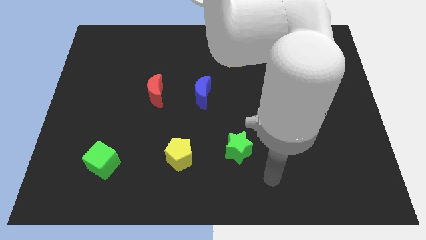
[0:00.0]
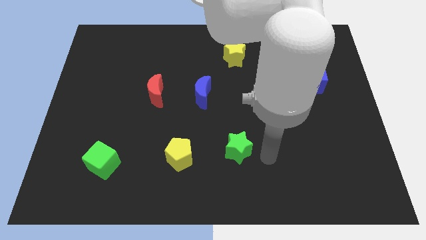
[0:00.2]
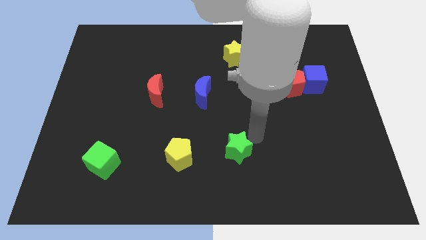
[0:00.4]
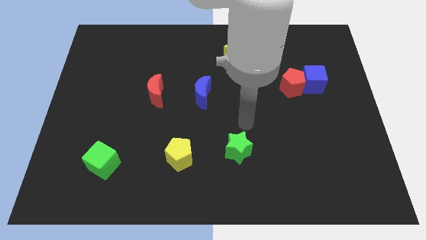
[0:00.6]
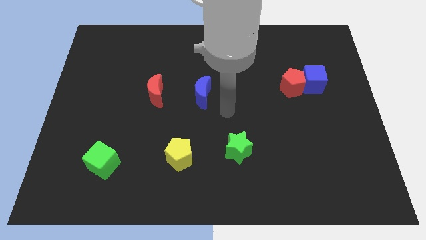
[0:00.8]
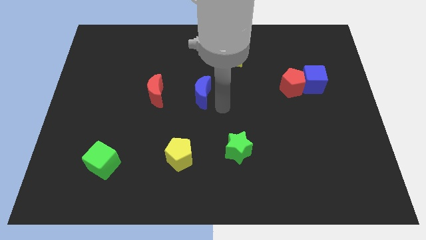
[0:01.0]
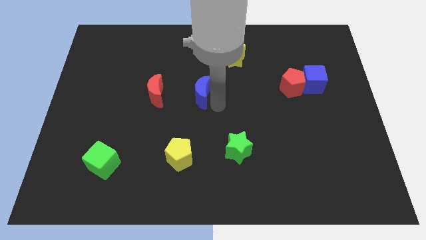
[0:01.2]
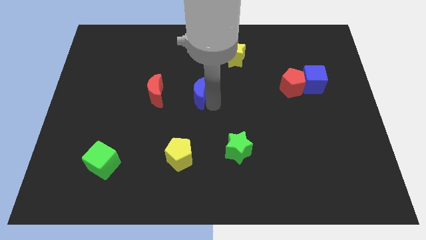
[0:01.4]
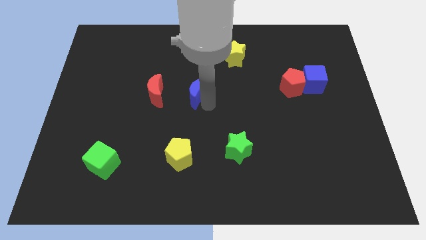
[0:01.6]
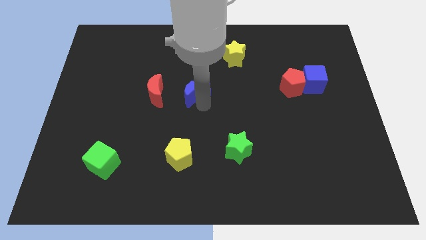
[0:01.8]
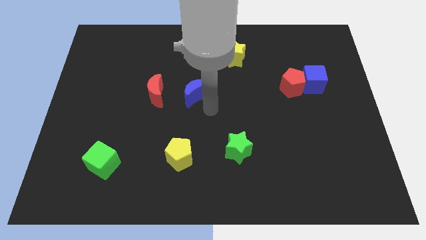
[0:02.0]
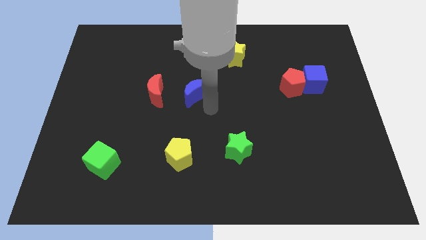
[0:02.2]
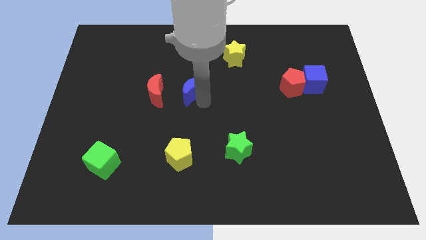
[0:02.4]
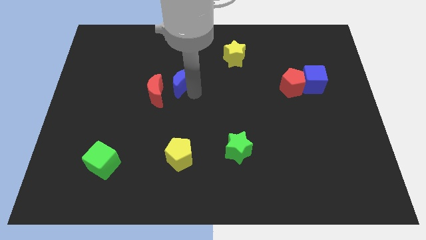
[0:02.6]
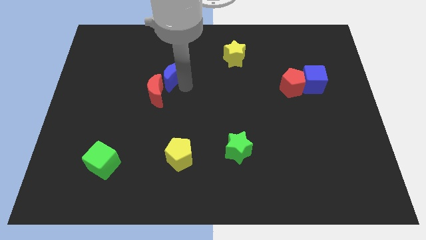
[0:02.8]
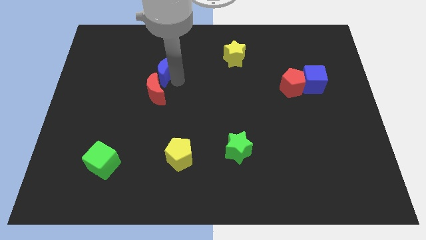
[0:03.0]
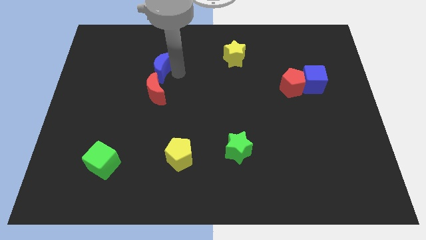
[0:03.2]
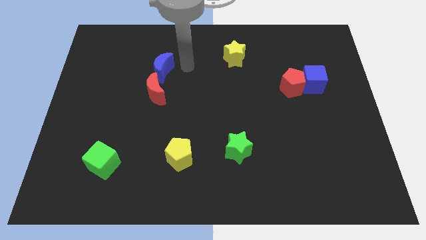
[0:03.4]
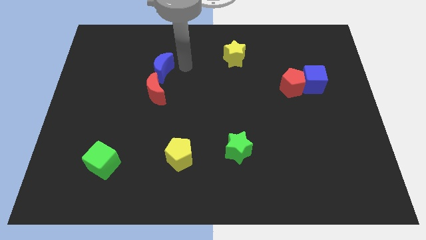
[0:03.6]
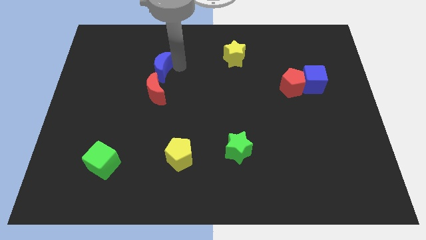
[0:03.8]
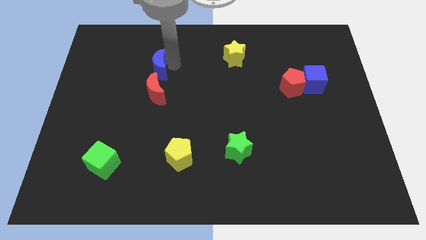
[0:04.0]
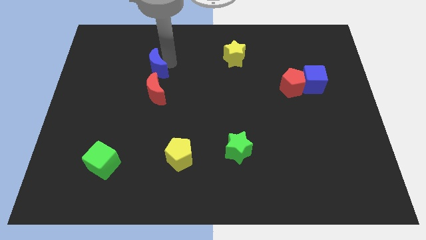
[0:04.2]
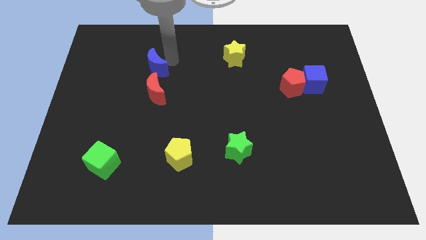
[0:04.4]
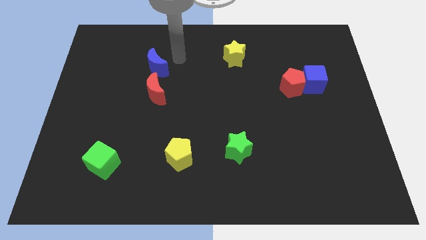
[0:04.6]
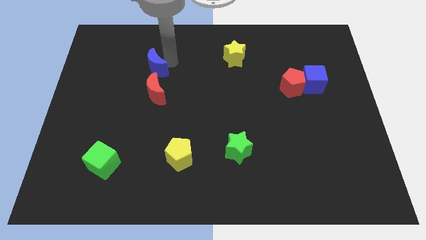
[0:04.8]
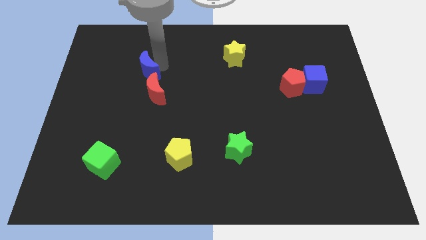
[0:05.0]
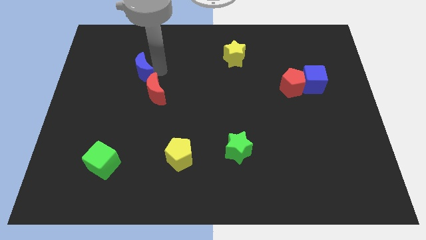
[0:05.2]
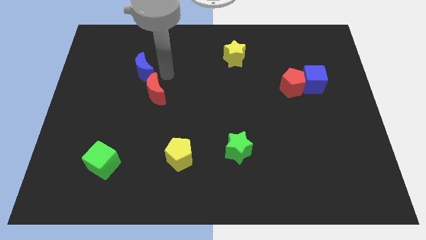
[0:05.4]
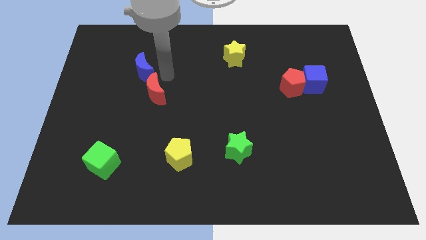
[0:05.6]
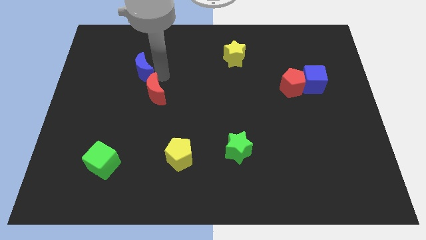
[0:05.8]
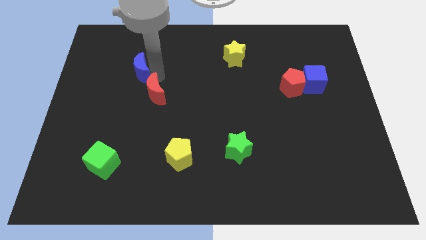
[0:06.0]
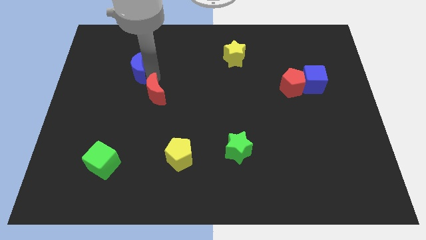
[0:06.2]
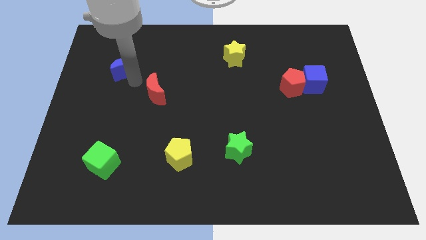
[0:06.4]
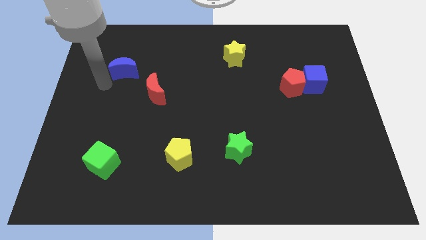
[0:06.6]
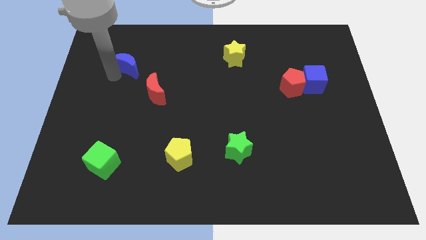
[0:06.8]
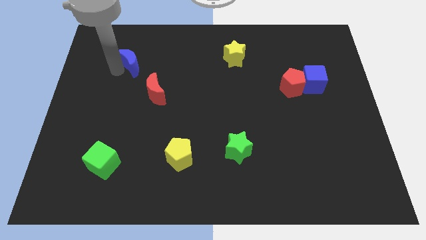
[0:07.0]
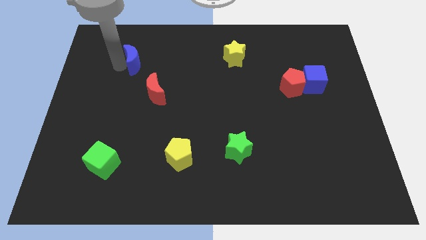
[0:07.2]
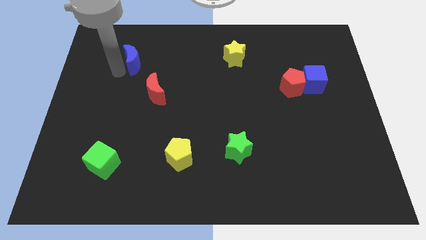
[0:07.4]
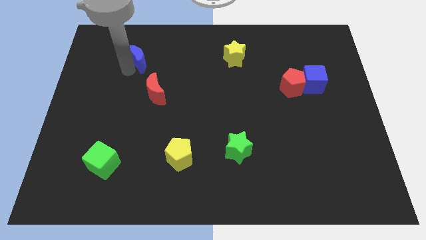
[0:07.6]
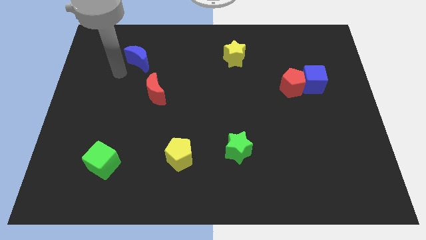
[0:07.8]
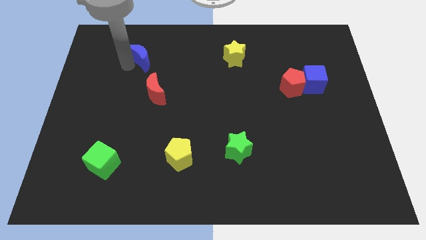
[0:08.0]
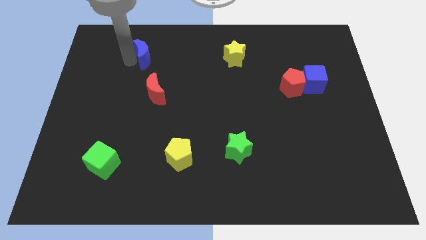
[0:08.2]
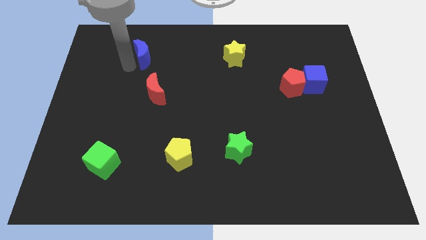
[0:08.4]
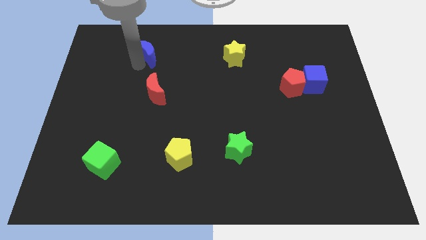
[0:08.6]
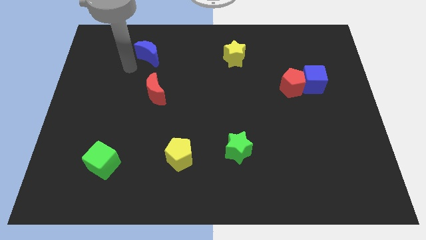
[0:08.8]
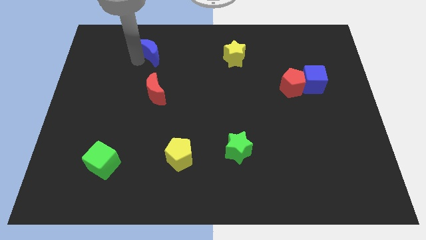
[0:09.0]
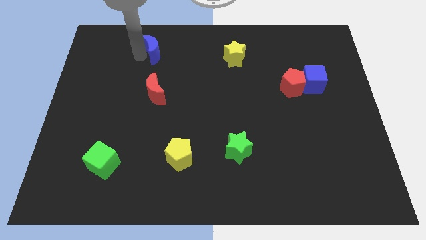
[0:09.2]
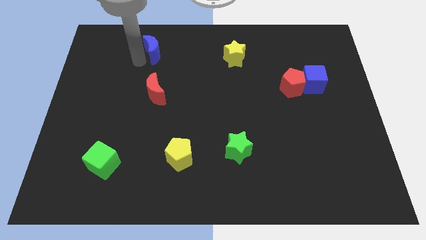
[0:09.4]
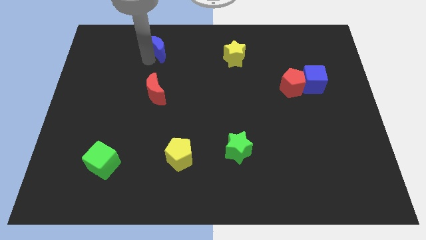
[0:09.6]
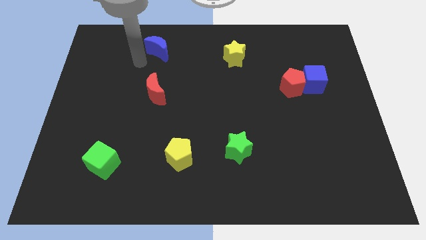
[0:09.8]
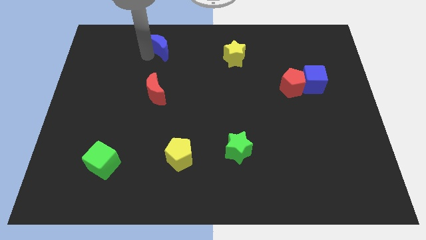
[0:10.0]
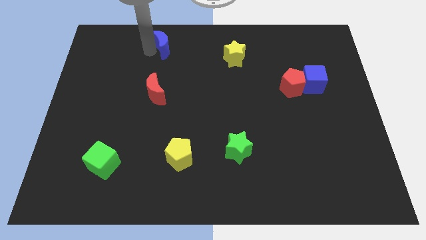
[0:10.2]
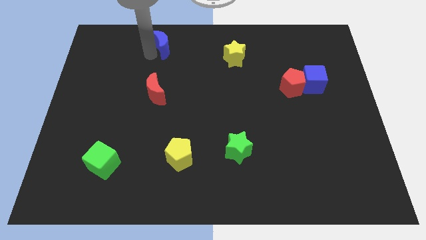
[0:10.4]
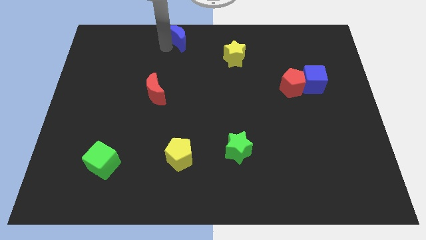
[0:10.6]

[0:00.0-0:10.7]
slide the blue moon to the top side

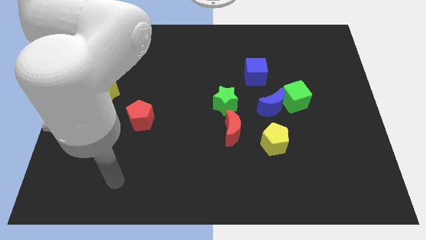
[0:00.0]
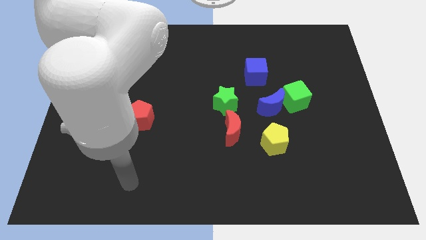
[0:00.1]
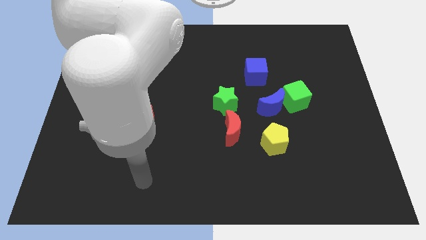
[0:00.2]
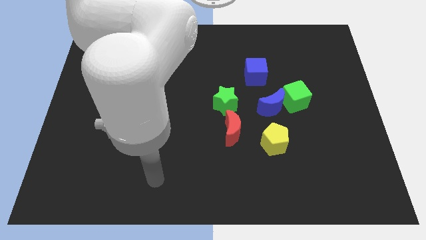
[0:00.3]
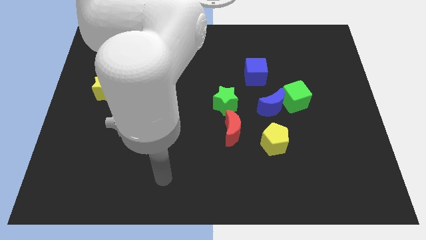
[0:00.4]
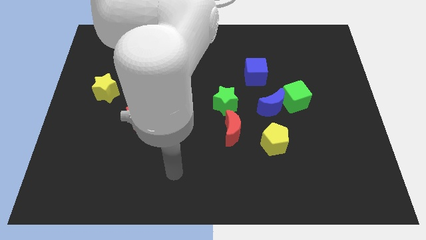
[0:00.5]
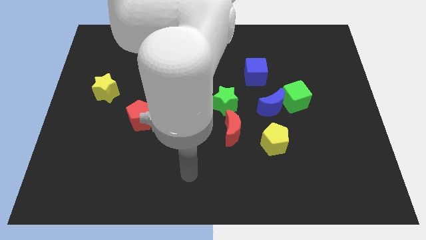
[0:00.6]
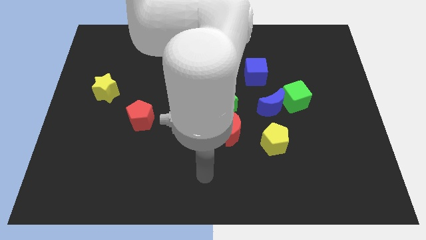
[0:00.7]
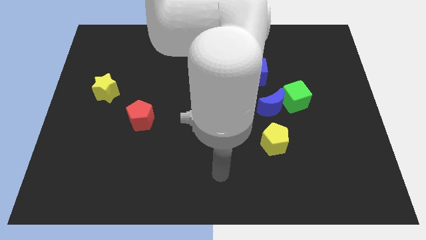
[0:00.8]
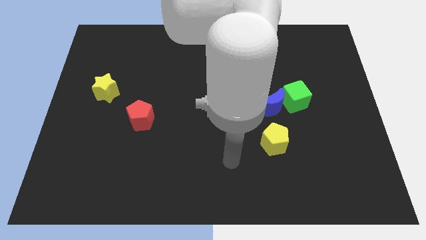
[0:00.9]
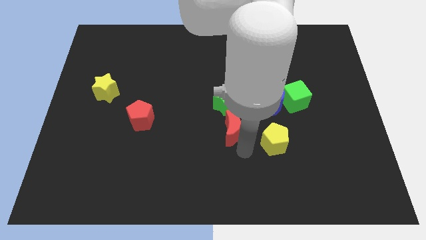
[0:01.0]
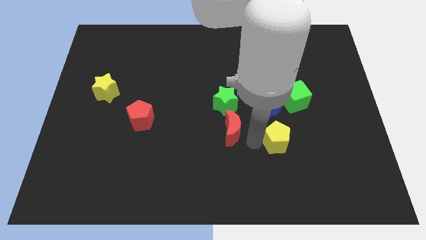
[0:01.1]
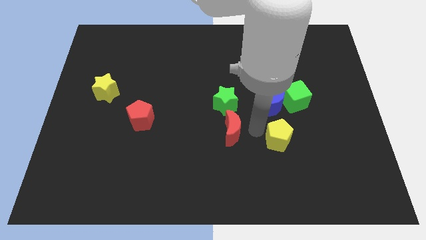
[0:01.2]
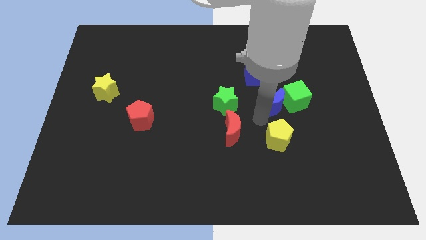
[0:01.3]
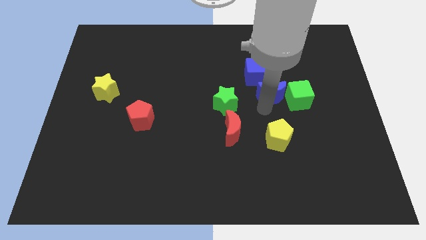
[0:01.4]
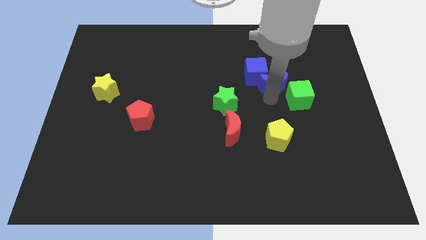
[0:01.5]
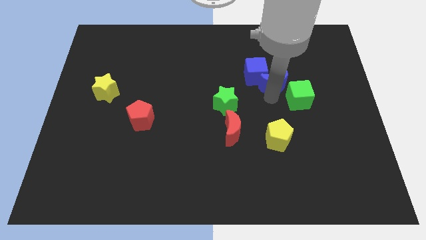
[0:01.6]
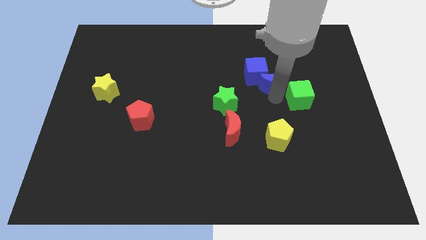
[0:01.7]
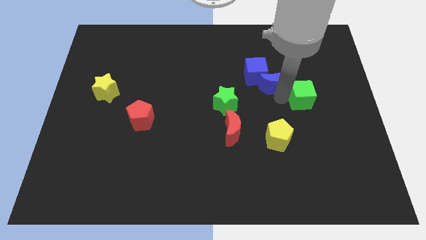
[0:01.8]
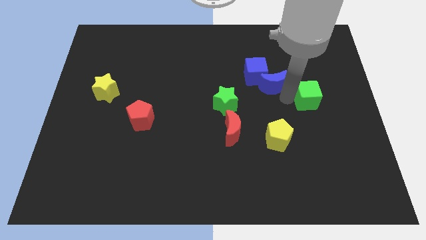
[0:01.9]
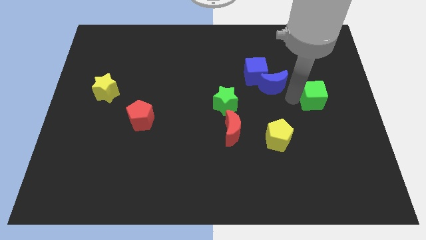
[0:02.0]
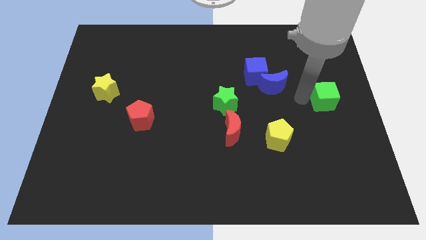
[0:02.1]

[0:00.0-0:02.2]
push the green cube to the right side of the board
